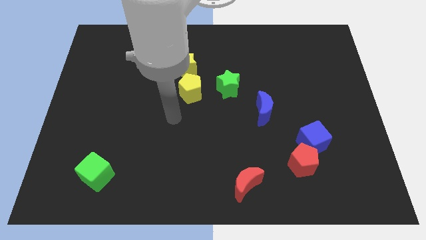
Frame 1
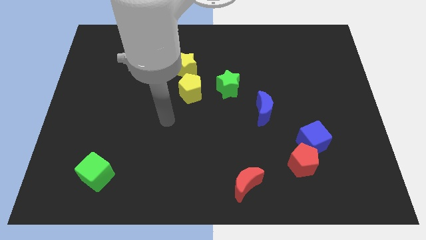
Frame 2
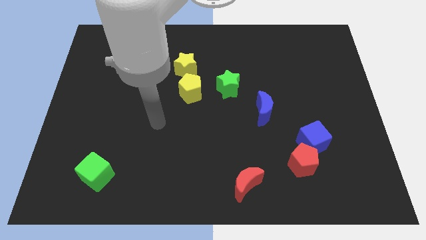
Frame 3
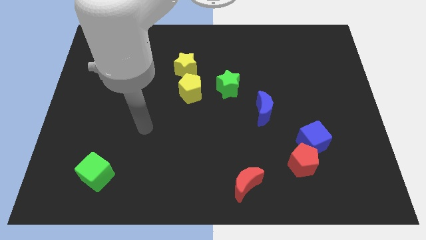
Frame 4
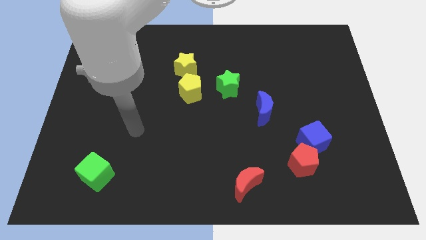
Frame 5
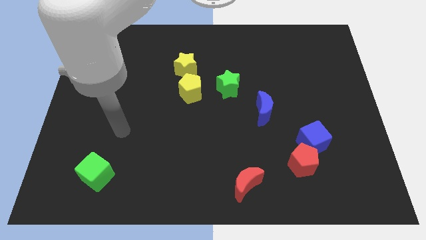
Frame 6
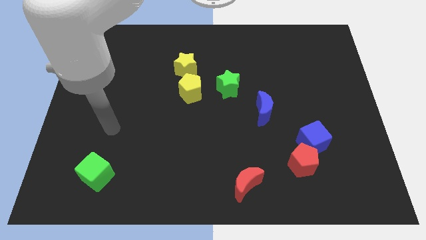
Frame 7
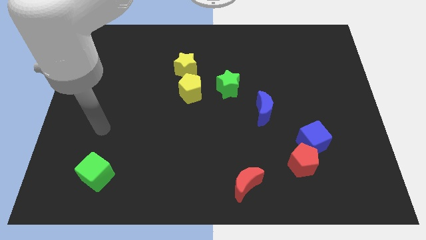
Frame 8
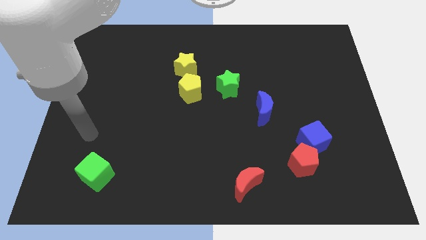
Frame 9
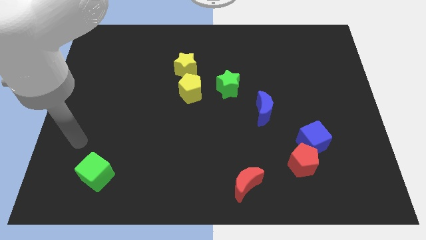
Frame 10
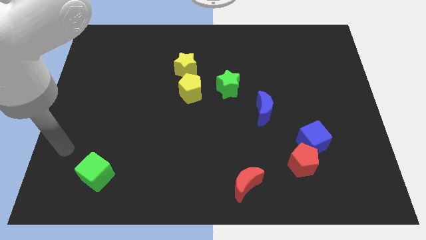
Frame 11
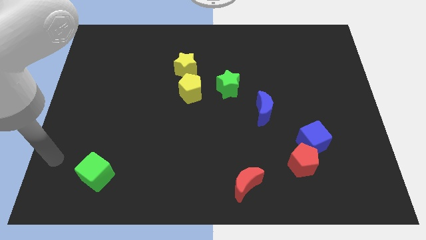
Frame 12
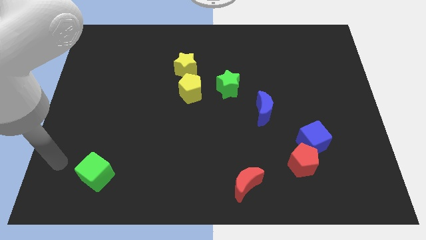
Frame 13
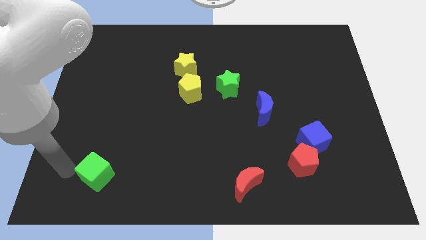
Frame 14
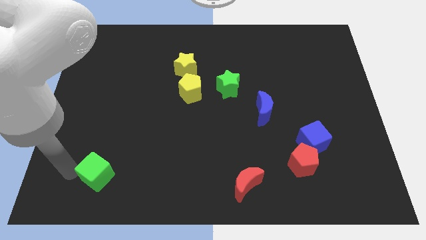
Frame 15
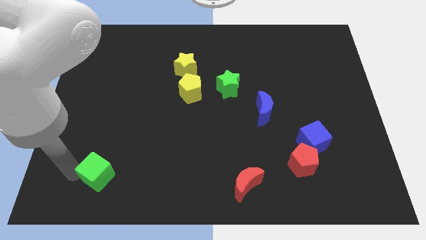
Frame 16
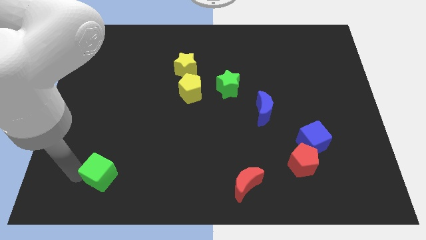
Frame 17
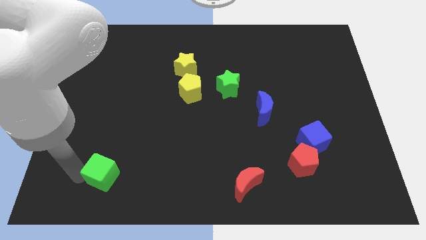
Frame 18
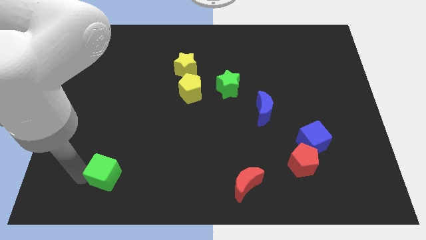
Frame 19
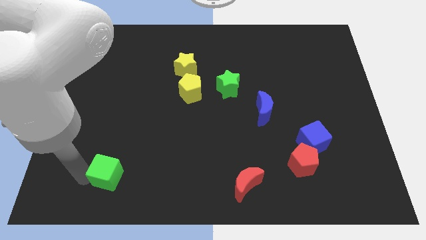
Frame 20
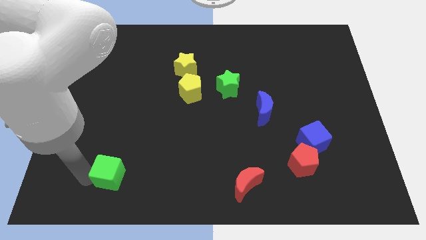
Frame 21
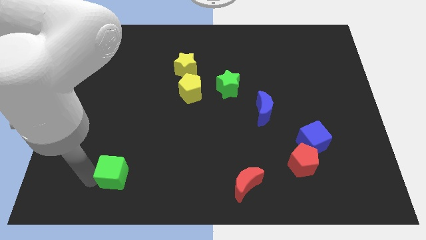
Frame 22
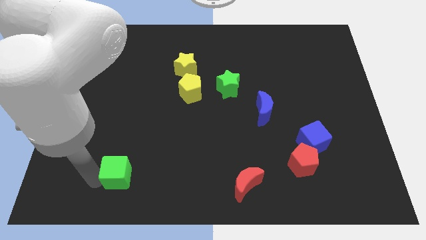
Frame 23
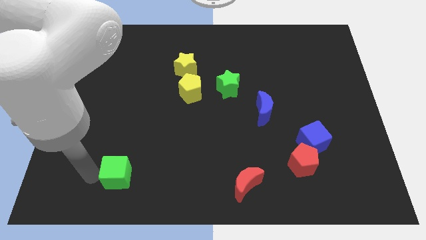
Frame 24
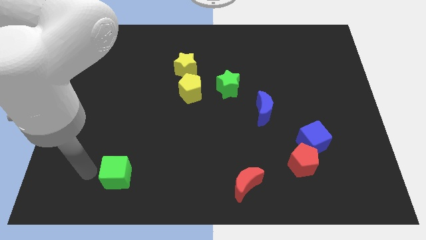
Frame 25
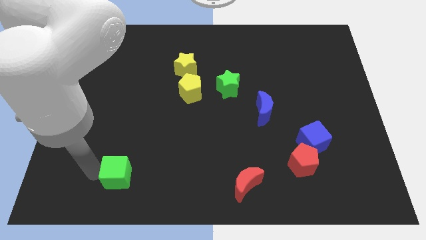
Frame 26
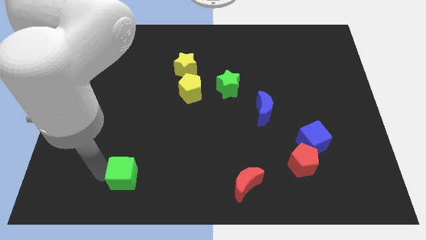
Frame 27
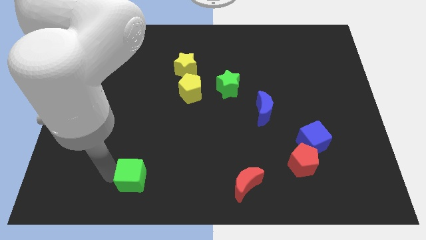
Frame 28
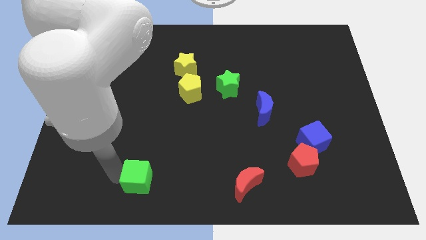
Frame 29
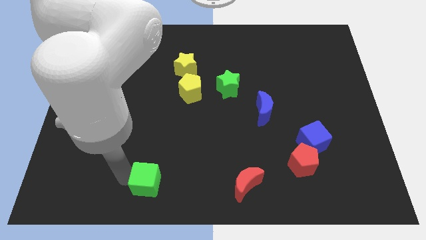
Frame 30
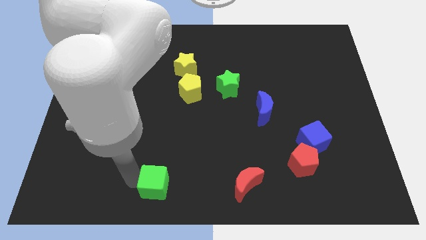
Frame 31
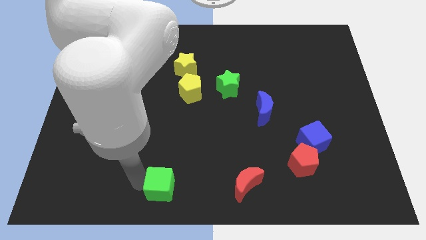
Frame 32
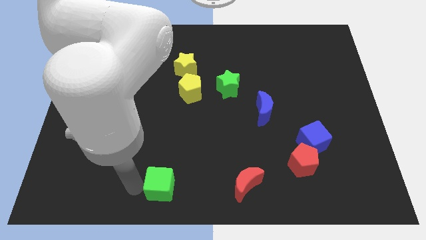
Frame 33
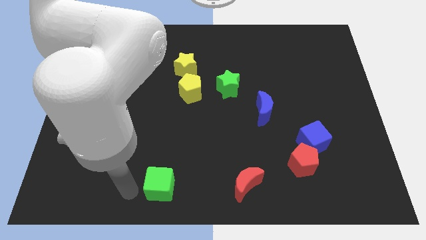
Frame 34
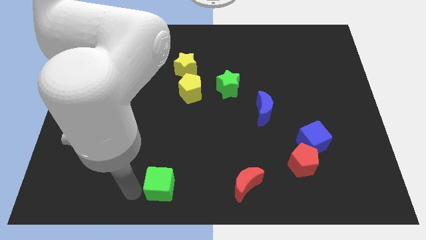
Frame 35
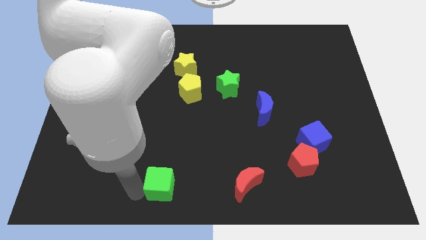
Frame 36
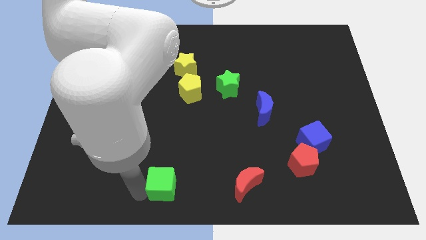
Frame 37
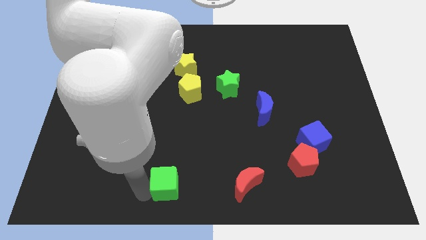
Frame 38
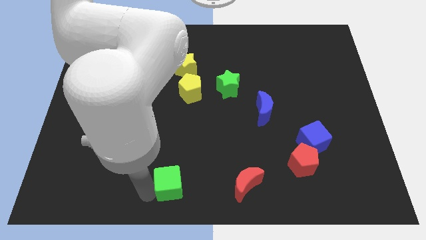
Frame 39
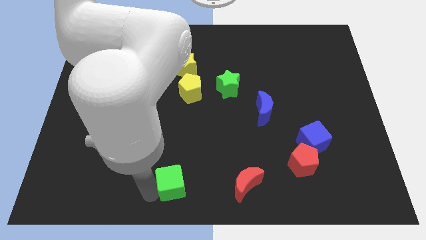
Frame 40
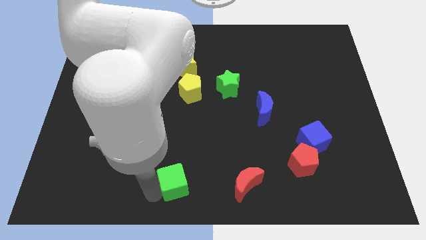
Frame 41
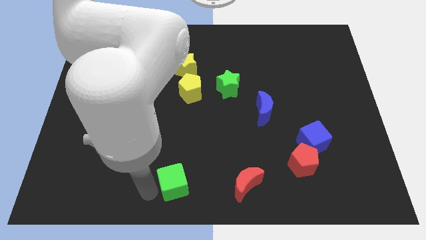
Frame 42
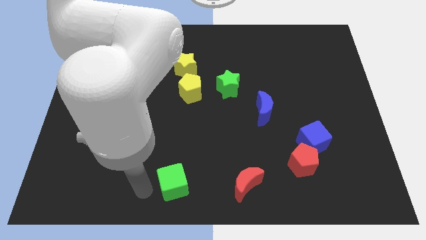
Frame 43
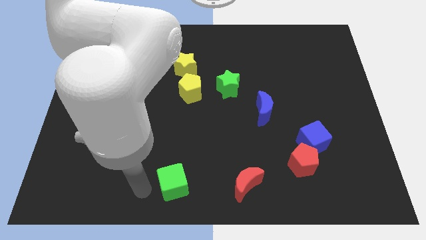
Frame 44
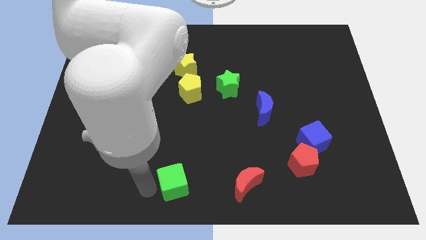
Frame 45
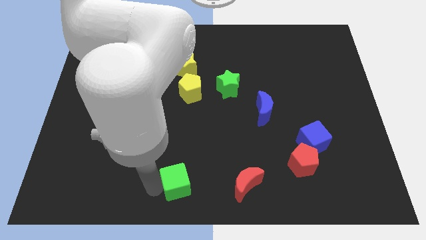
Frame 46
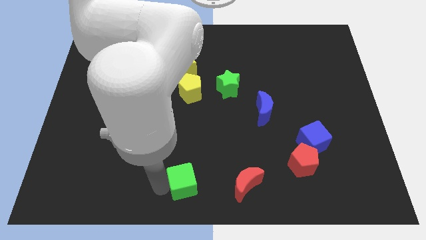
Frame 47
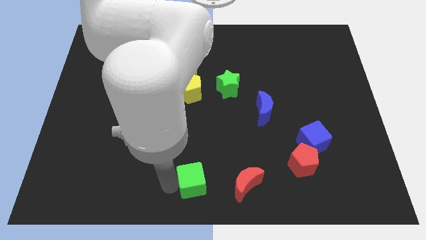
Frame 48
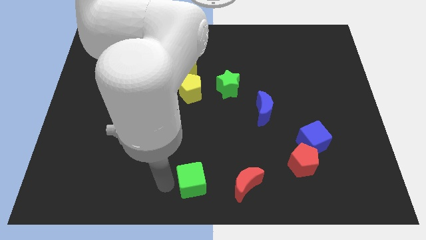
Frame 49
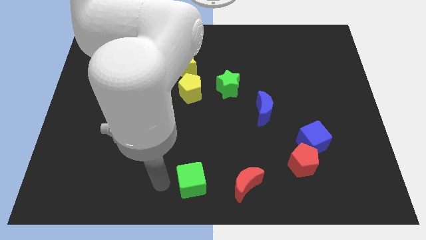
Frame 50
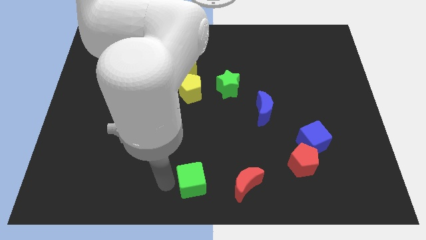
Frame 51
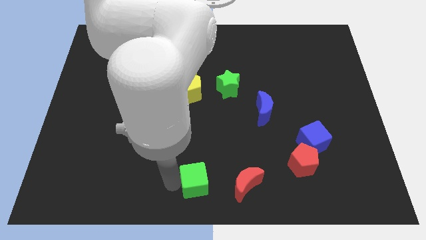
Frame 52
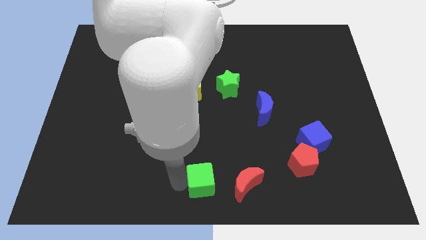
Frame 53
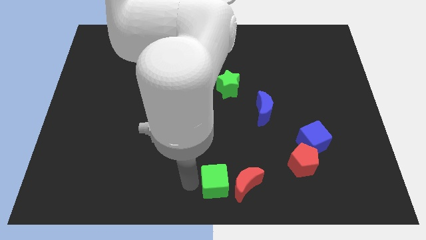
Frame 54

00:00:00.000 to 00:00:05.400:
put the green cube to the red moon

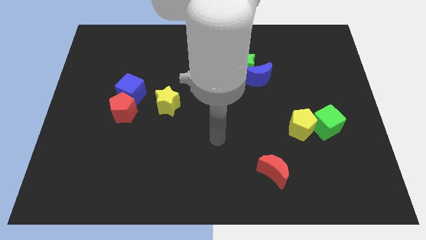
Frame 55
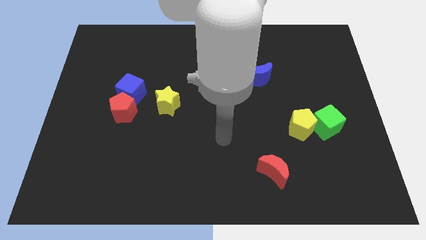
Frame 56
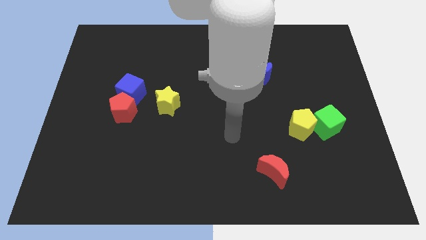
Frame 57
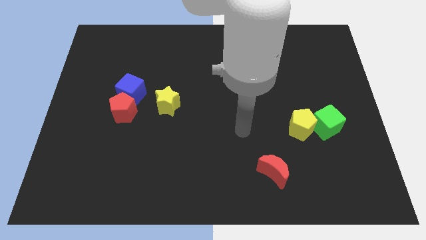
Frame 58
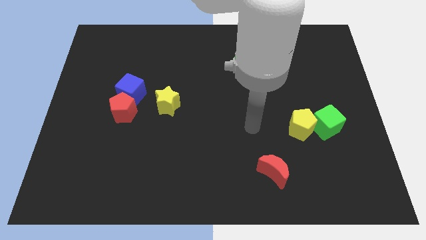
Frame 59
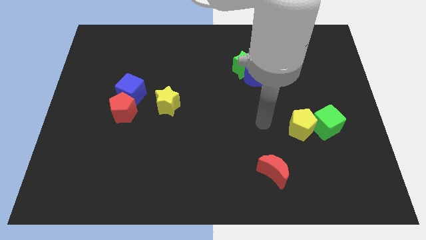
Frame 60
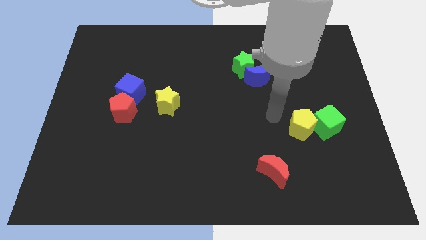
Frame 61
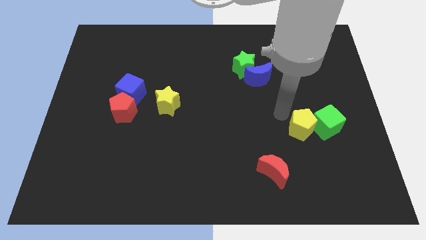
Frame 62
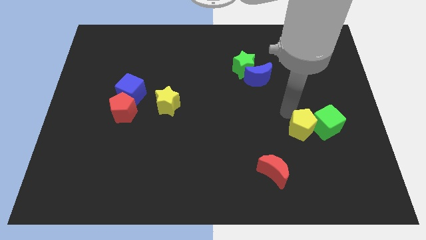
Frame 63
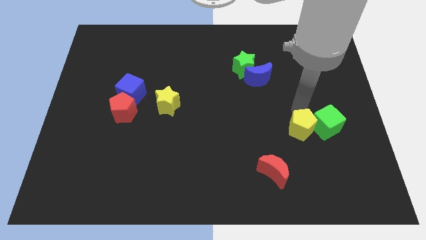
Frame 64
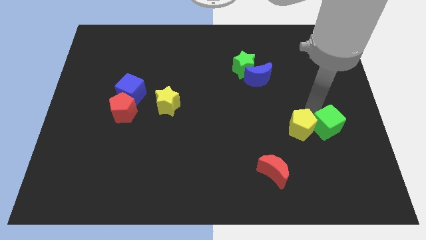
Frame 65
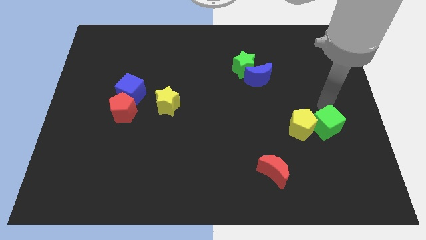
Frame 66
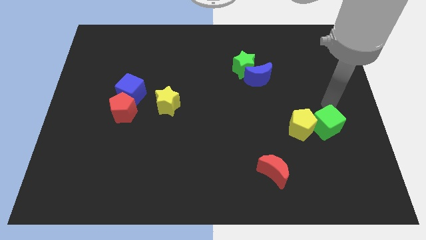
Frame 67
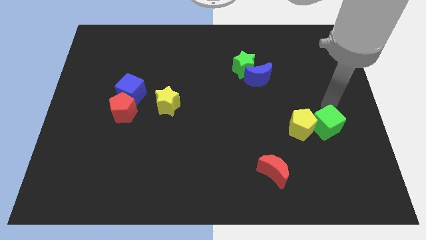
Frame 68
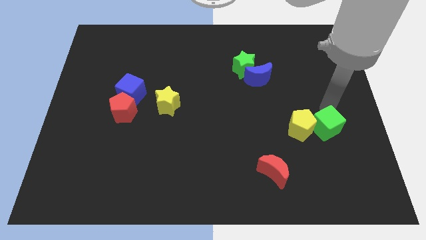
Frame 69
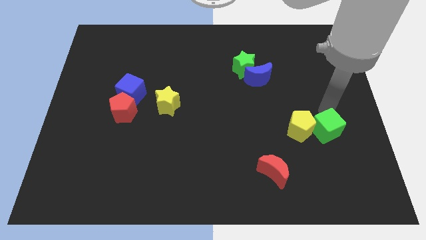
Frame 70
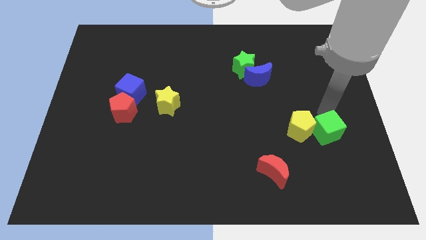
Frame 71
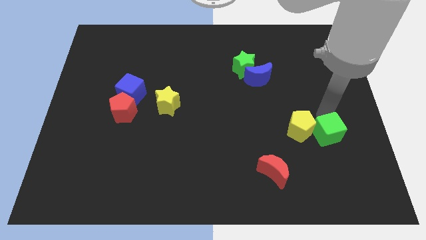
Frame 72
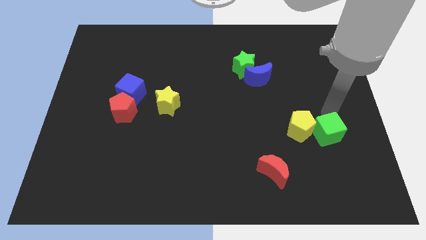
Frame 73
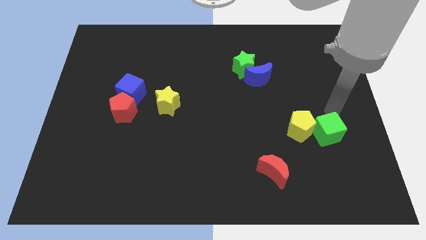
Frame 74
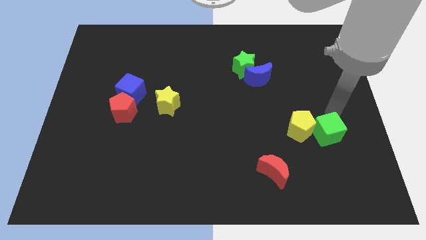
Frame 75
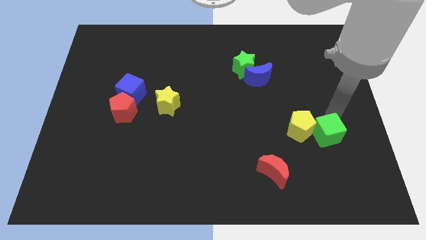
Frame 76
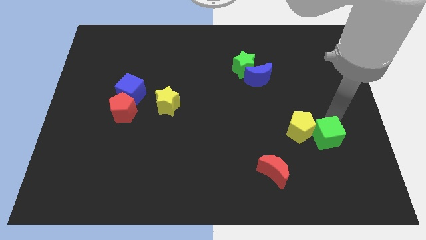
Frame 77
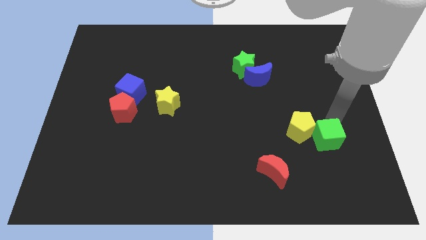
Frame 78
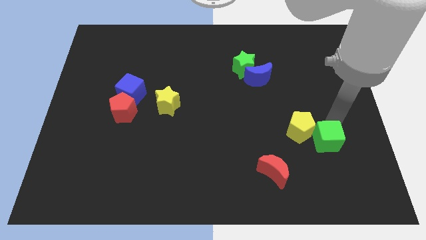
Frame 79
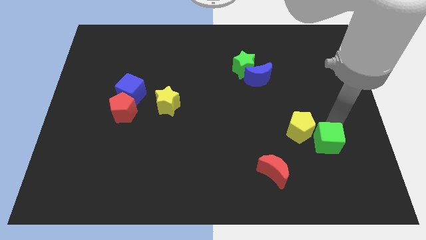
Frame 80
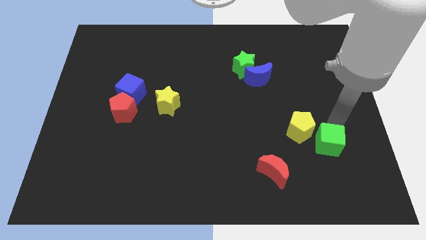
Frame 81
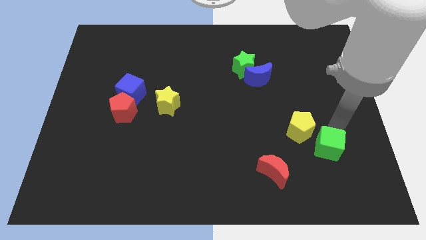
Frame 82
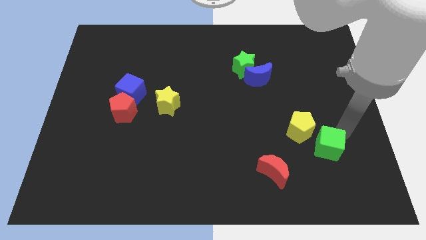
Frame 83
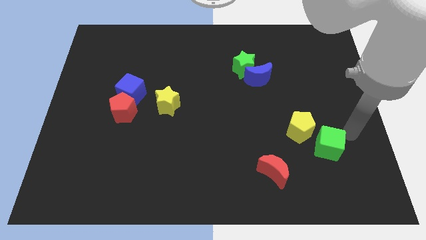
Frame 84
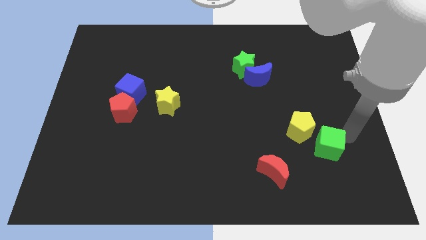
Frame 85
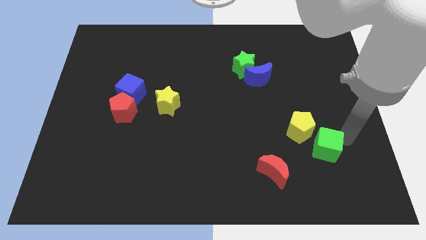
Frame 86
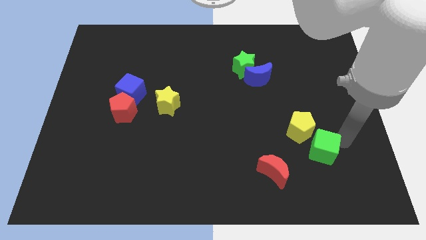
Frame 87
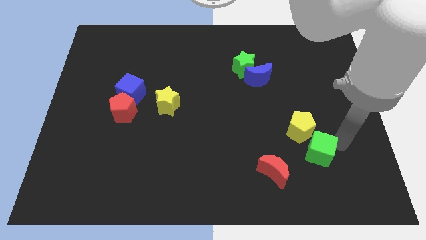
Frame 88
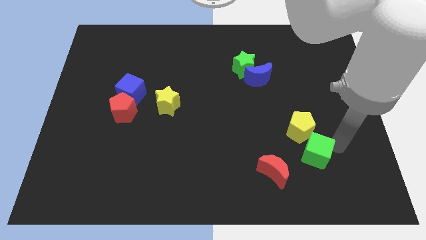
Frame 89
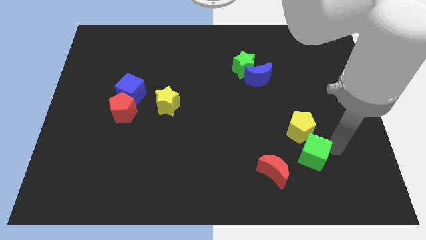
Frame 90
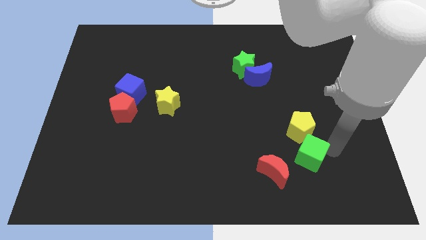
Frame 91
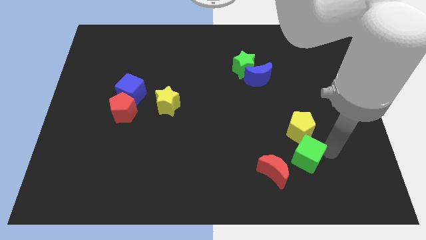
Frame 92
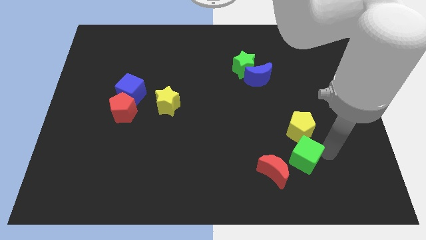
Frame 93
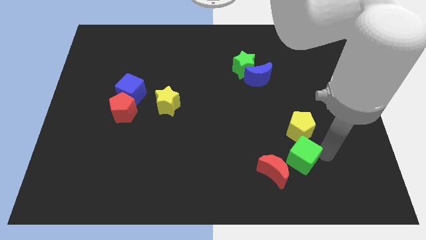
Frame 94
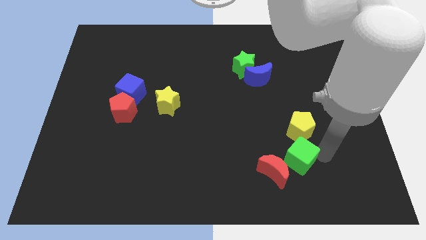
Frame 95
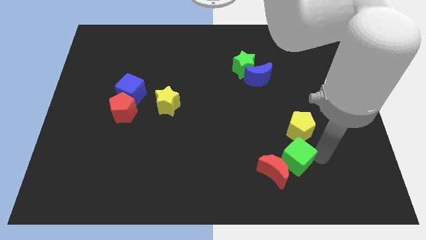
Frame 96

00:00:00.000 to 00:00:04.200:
move the green cube close to the red moon
